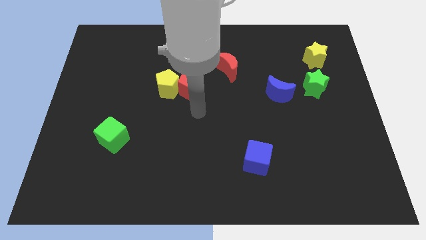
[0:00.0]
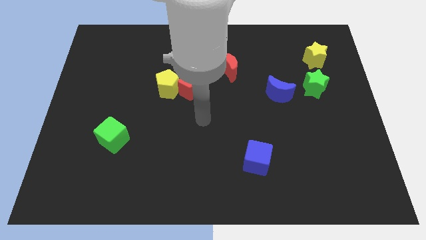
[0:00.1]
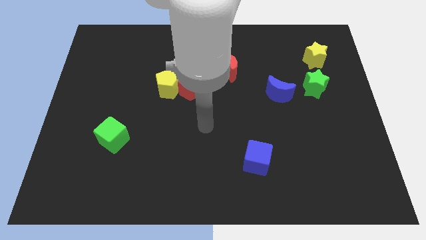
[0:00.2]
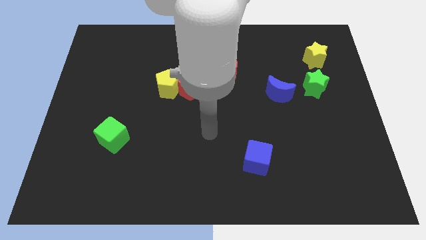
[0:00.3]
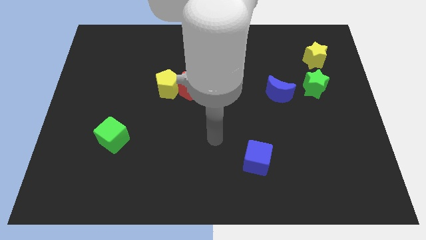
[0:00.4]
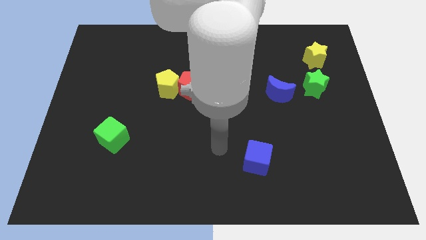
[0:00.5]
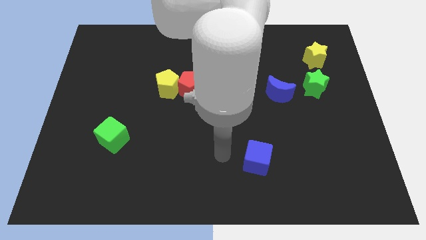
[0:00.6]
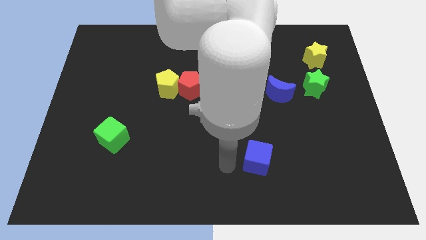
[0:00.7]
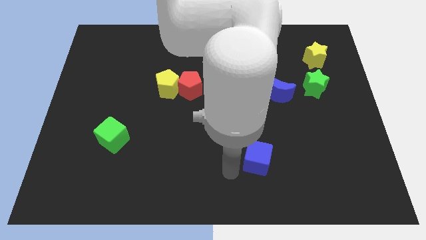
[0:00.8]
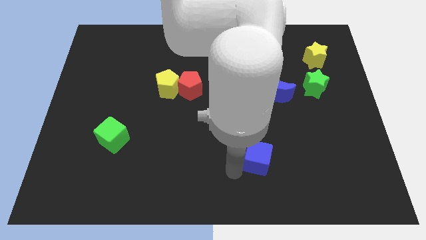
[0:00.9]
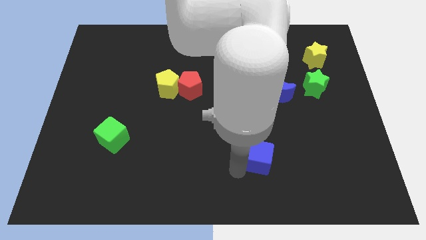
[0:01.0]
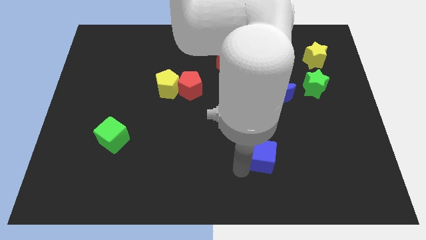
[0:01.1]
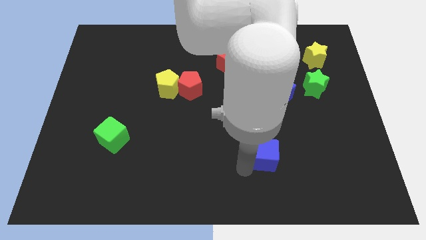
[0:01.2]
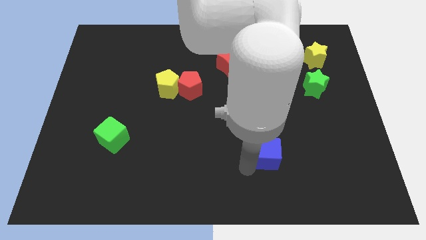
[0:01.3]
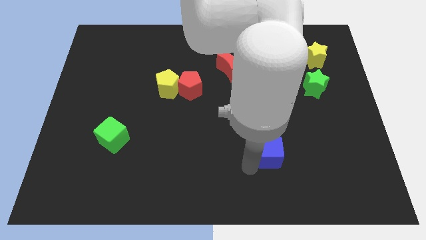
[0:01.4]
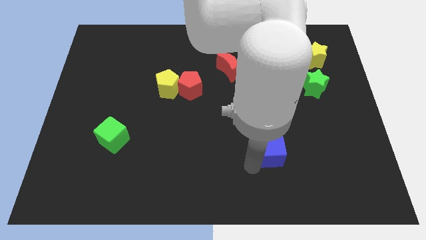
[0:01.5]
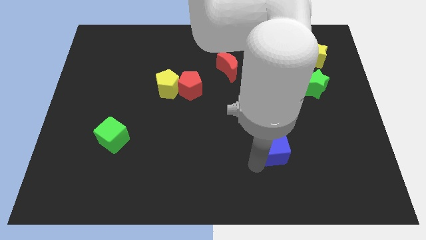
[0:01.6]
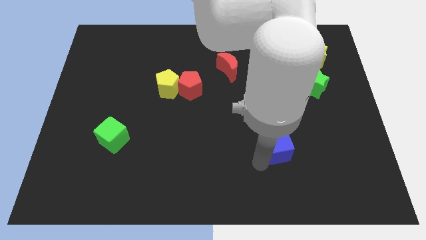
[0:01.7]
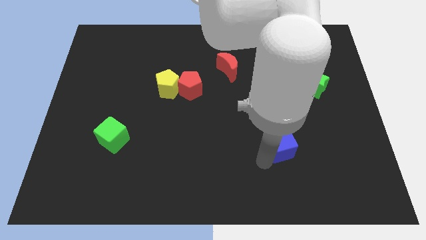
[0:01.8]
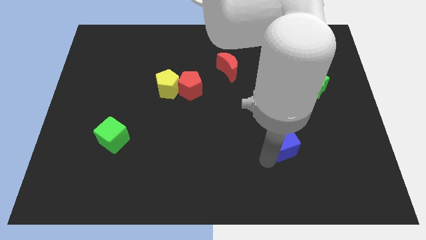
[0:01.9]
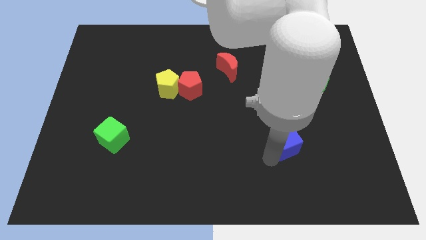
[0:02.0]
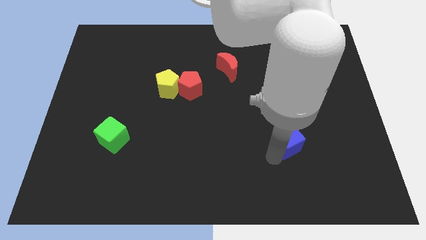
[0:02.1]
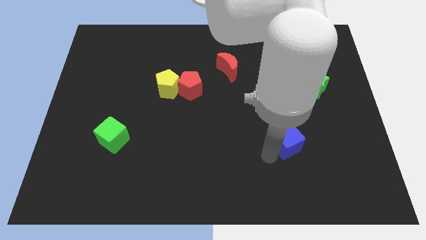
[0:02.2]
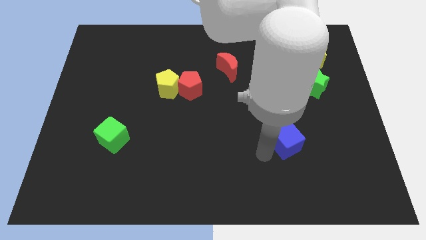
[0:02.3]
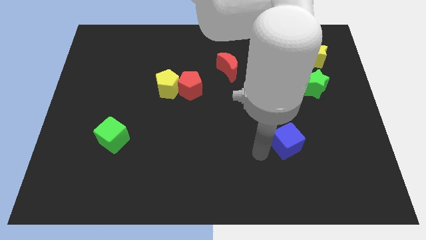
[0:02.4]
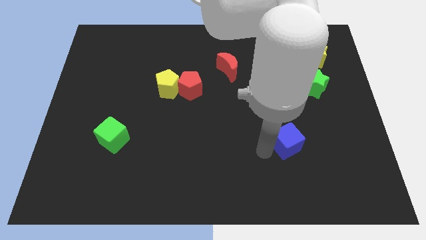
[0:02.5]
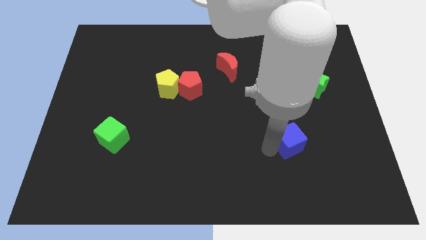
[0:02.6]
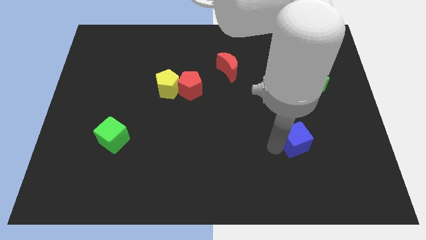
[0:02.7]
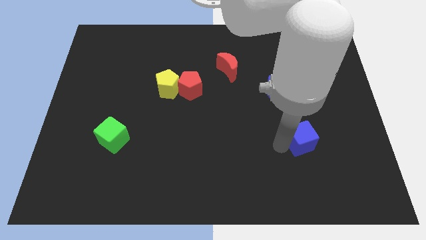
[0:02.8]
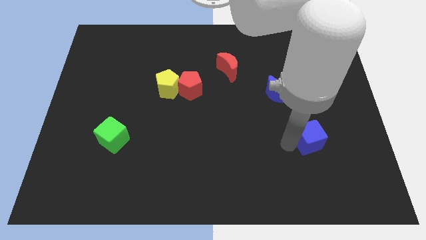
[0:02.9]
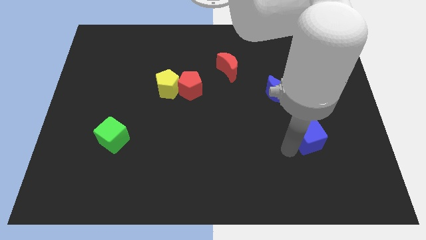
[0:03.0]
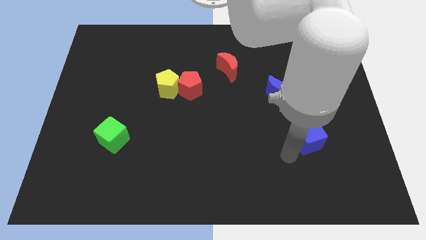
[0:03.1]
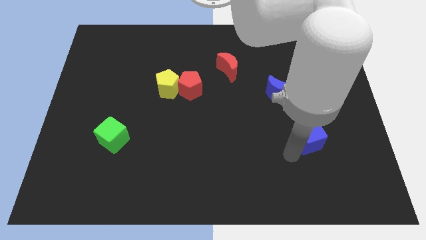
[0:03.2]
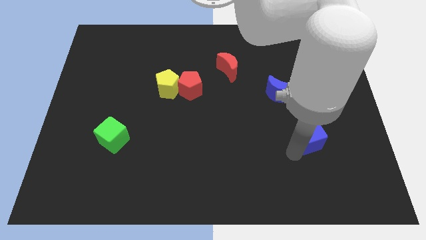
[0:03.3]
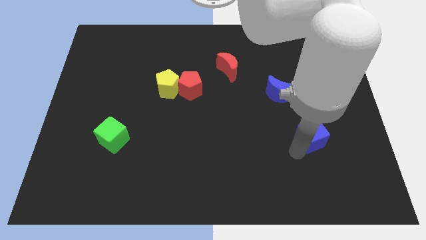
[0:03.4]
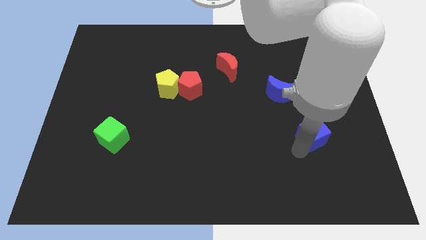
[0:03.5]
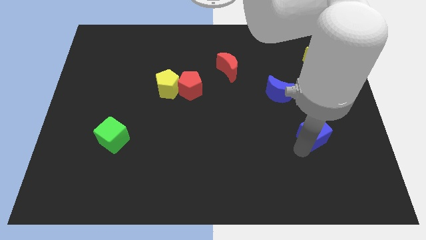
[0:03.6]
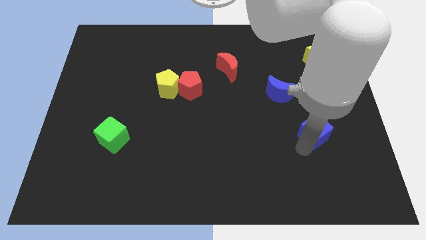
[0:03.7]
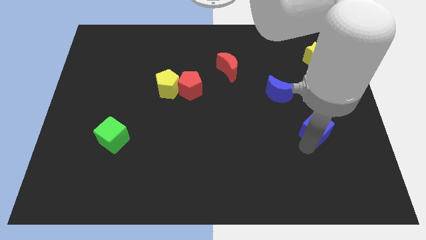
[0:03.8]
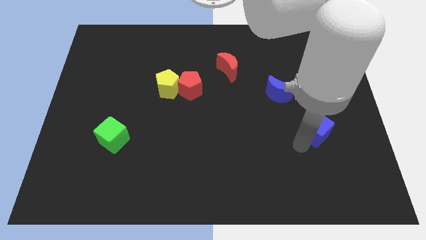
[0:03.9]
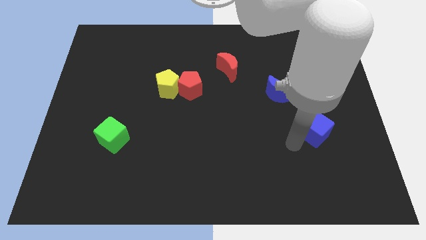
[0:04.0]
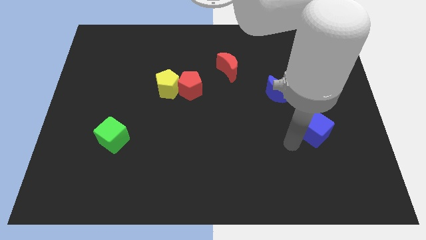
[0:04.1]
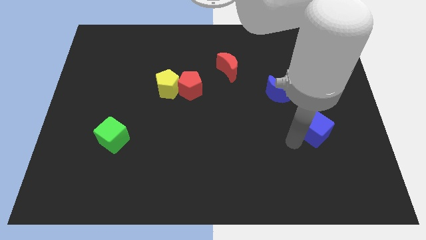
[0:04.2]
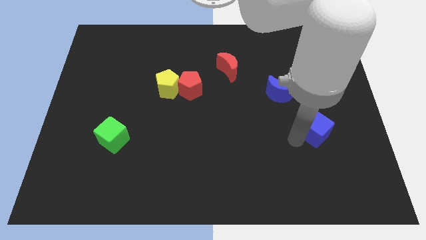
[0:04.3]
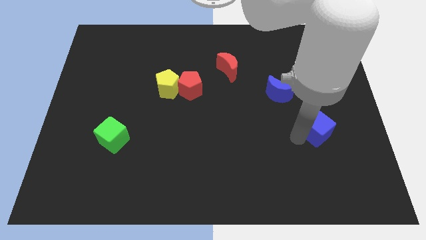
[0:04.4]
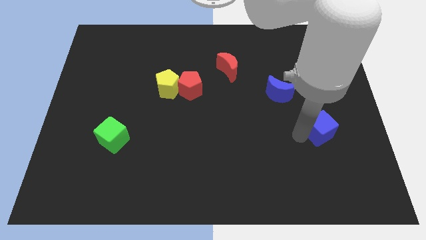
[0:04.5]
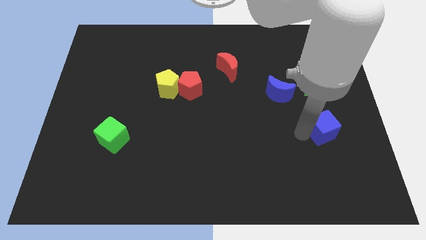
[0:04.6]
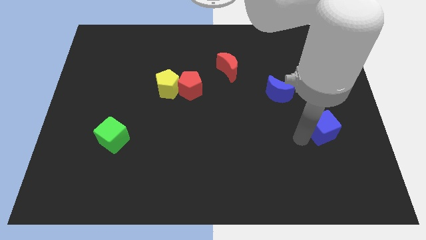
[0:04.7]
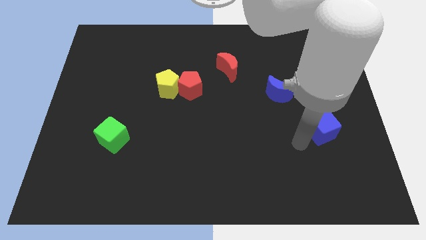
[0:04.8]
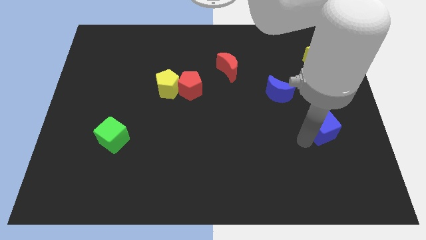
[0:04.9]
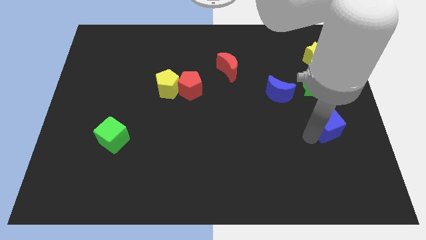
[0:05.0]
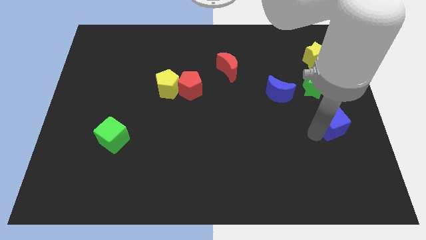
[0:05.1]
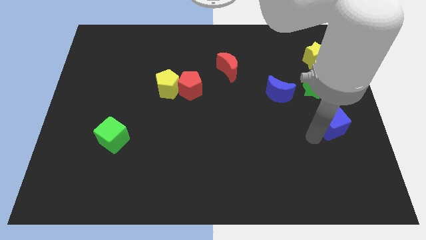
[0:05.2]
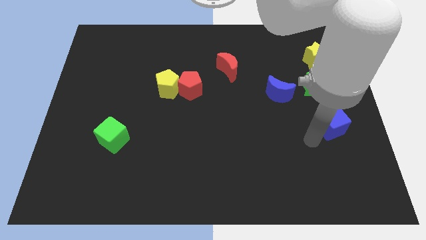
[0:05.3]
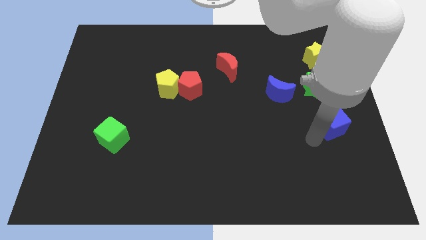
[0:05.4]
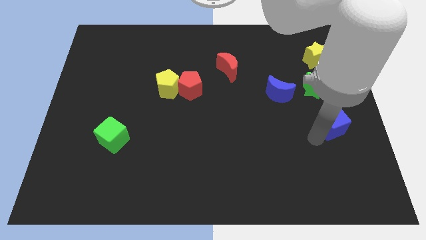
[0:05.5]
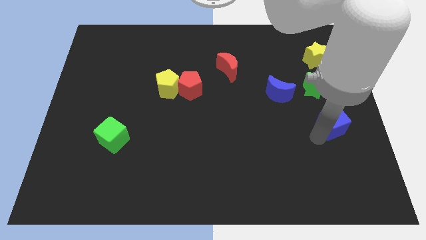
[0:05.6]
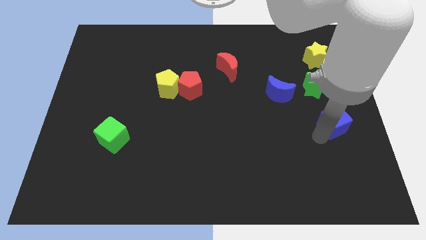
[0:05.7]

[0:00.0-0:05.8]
put the blue cube to the center right
